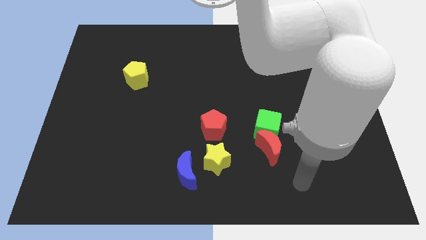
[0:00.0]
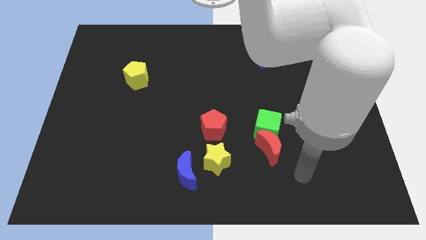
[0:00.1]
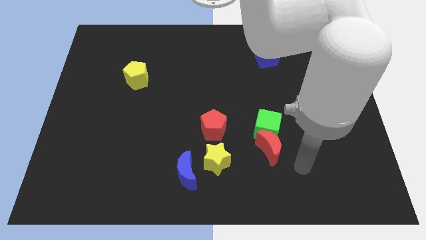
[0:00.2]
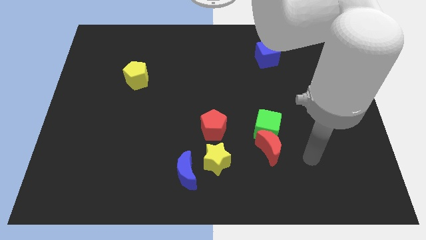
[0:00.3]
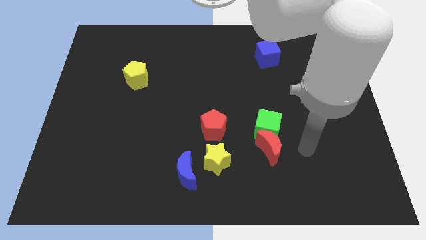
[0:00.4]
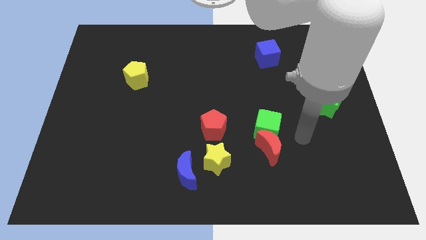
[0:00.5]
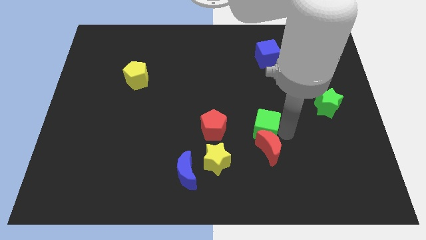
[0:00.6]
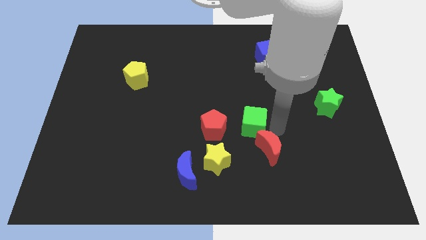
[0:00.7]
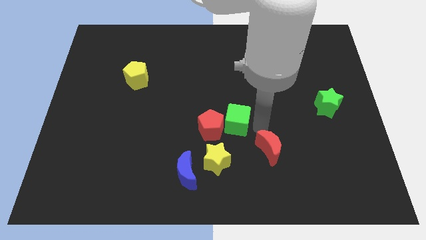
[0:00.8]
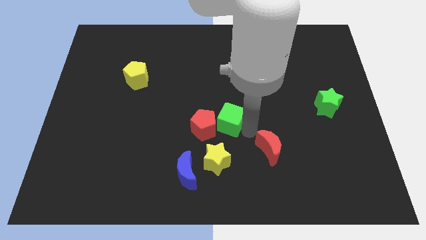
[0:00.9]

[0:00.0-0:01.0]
separate the red moon from the green cube

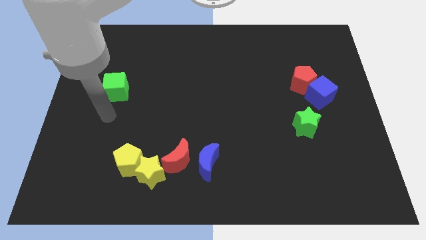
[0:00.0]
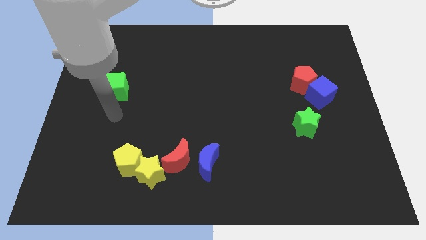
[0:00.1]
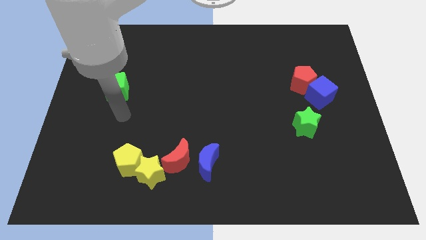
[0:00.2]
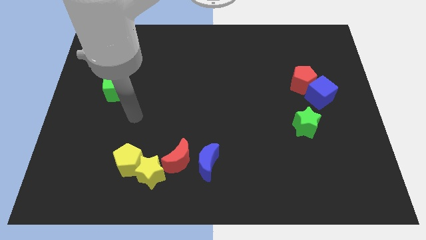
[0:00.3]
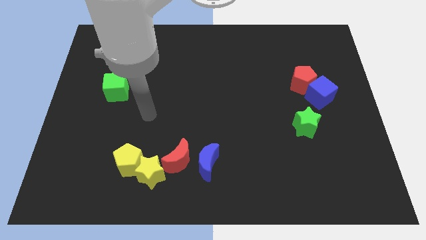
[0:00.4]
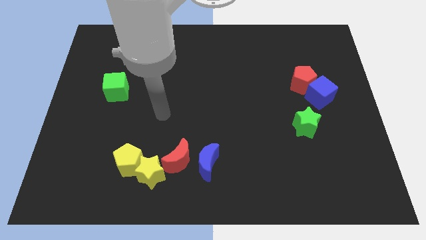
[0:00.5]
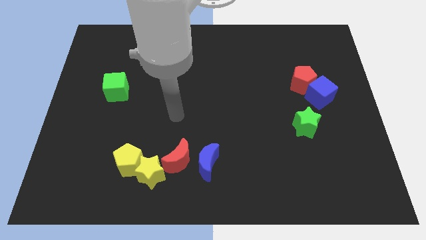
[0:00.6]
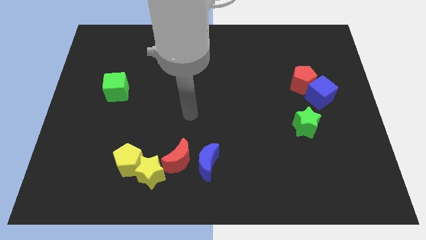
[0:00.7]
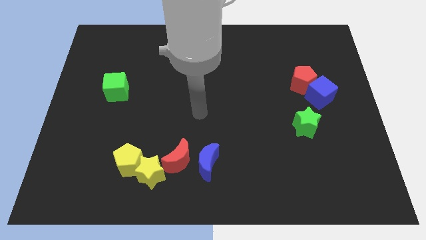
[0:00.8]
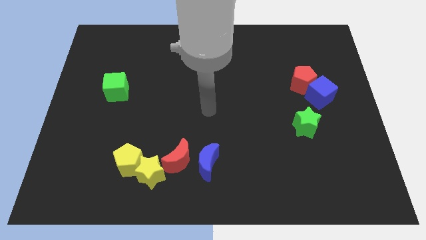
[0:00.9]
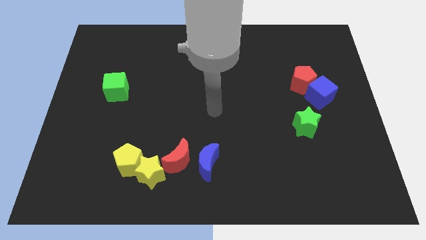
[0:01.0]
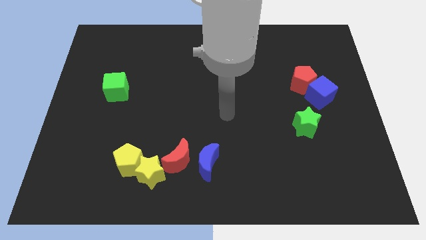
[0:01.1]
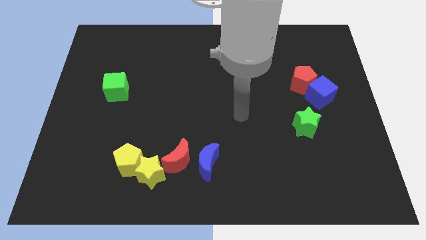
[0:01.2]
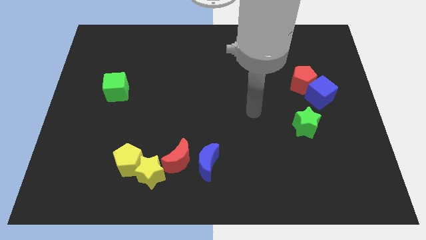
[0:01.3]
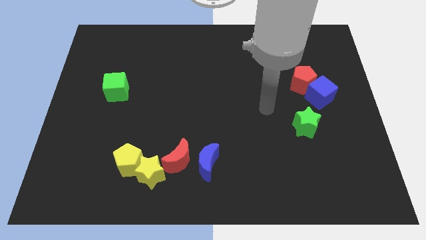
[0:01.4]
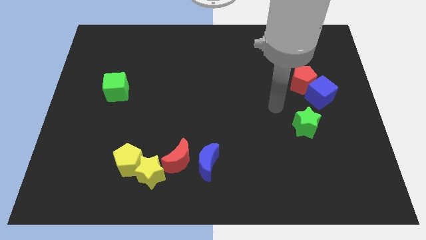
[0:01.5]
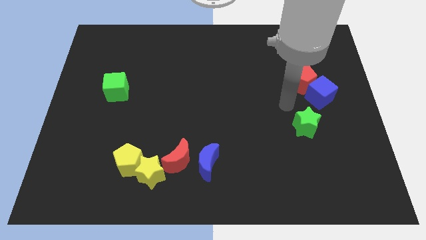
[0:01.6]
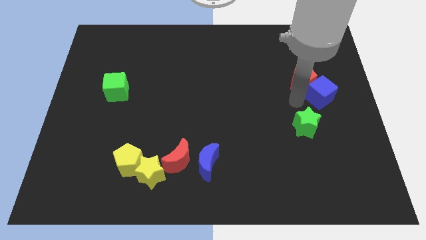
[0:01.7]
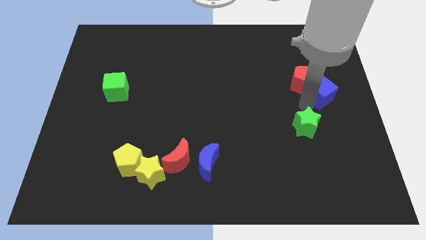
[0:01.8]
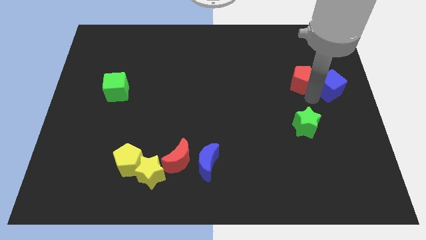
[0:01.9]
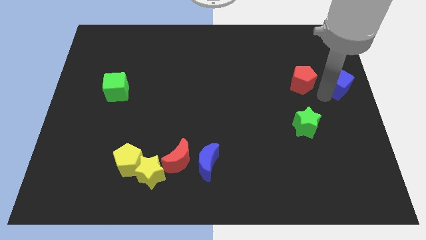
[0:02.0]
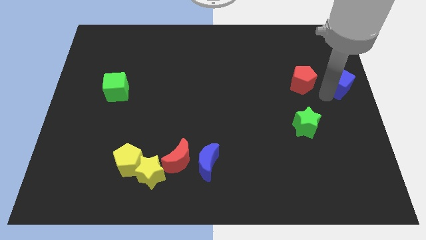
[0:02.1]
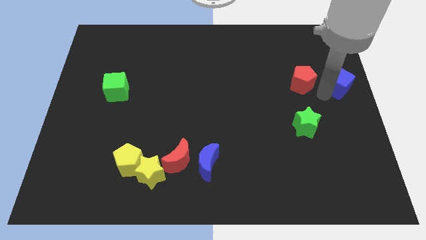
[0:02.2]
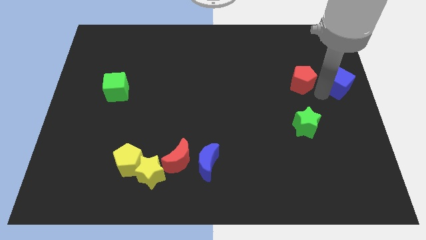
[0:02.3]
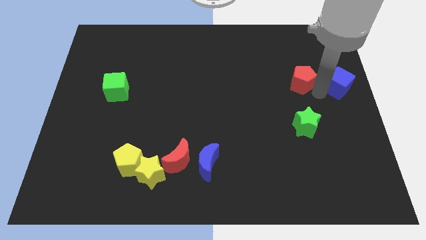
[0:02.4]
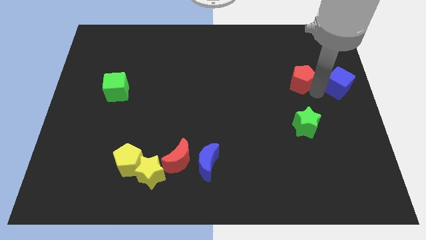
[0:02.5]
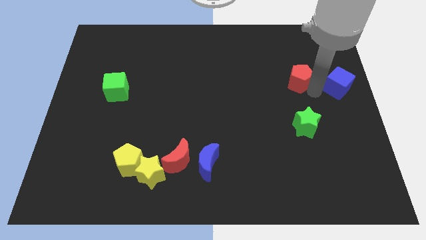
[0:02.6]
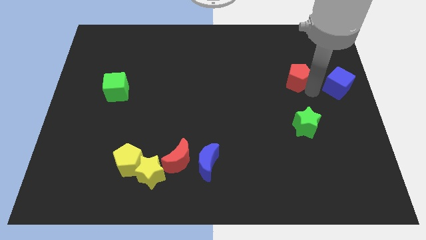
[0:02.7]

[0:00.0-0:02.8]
pull the red pentagon apart from the blue cube

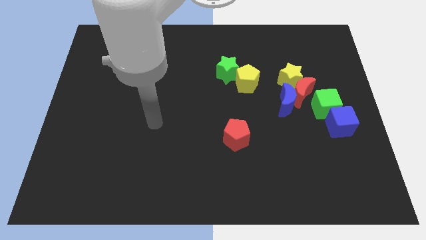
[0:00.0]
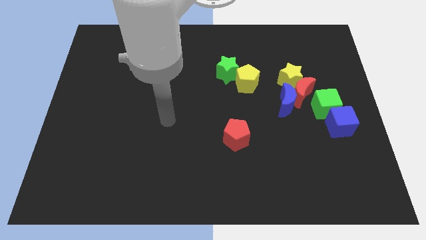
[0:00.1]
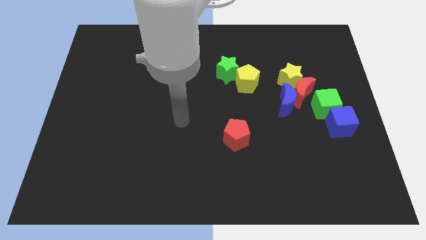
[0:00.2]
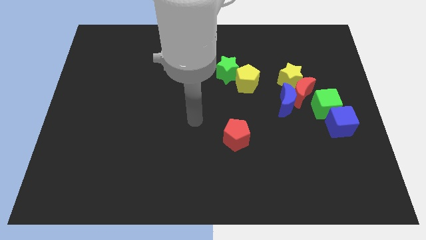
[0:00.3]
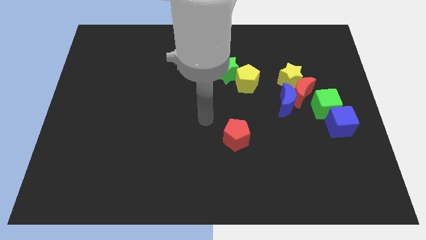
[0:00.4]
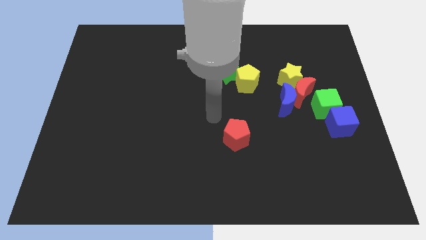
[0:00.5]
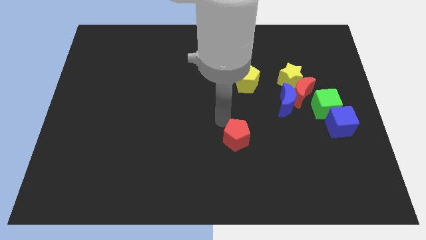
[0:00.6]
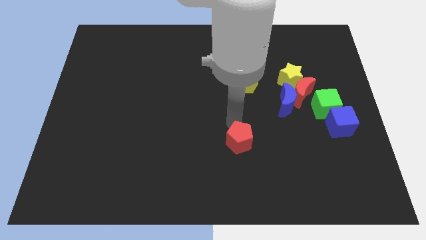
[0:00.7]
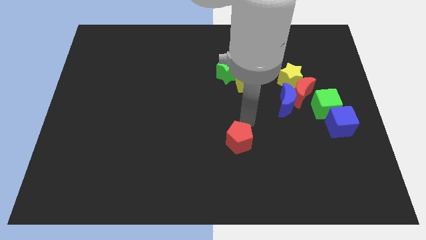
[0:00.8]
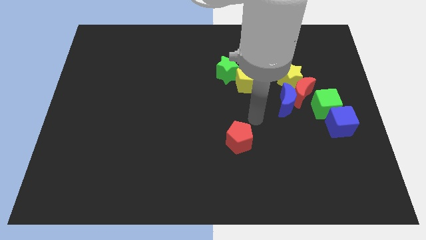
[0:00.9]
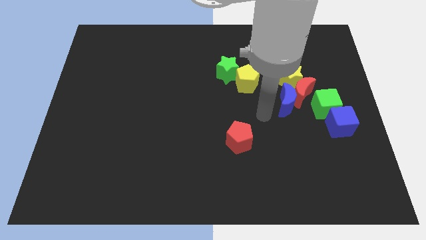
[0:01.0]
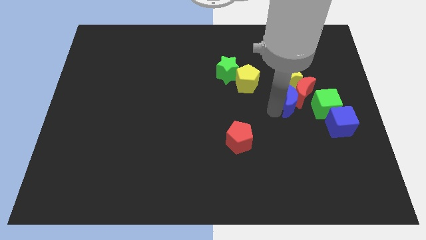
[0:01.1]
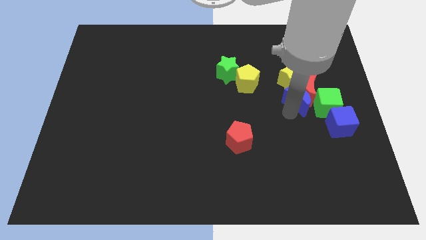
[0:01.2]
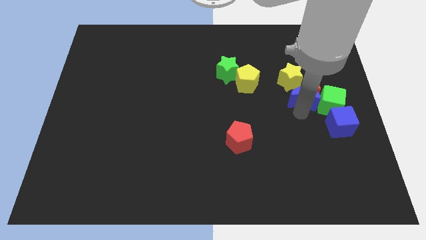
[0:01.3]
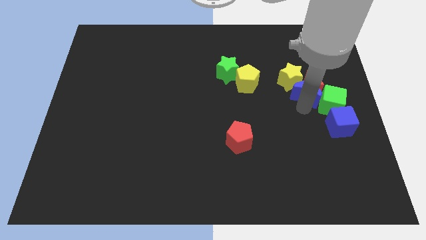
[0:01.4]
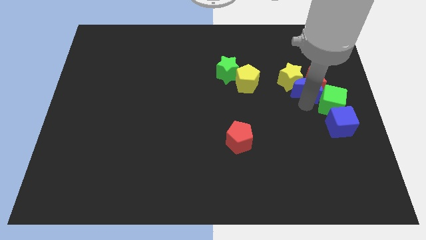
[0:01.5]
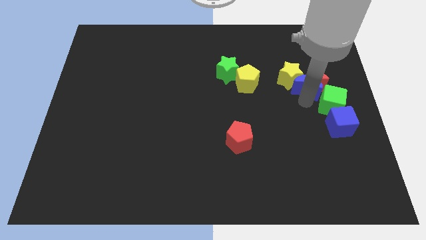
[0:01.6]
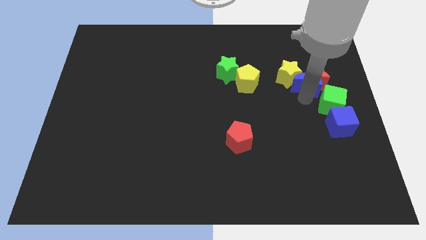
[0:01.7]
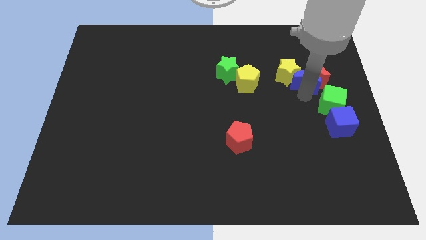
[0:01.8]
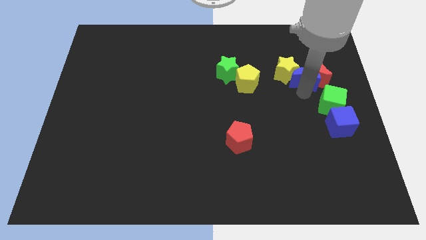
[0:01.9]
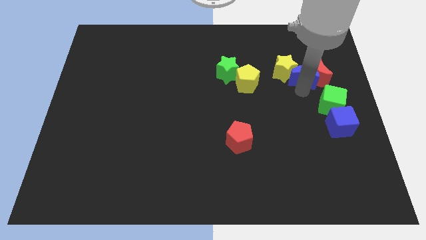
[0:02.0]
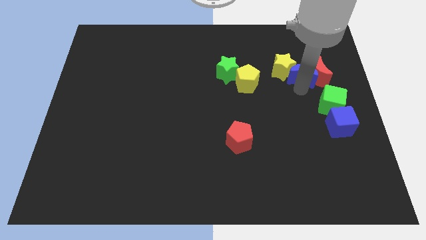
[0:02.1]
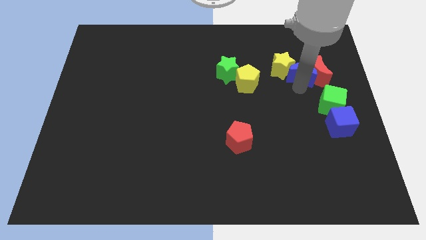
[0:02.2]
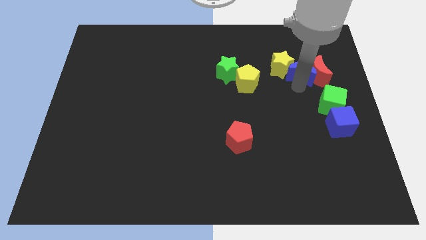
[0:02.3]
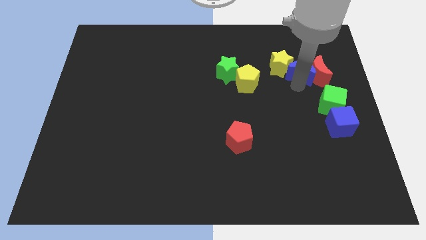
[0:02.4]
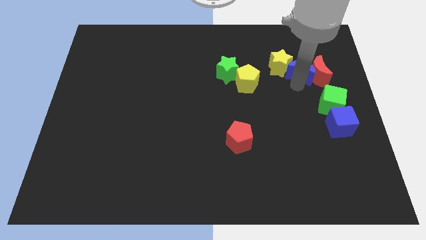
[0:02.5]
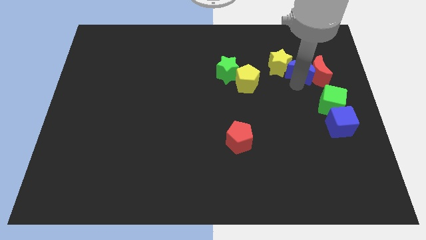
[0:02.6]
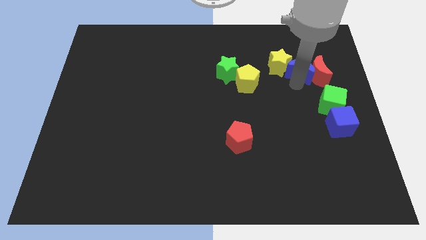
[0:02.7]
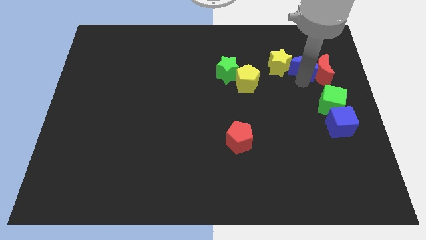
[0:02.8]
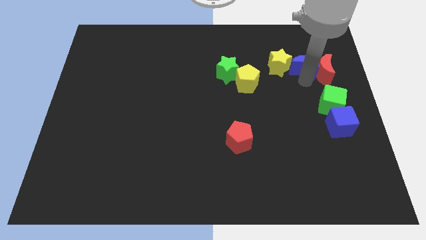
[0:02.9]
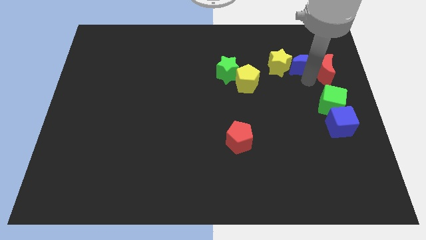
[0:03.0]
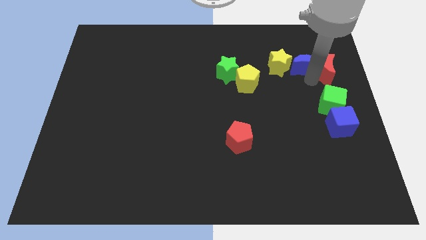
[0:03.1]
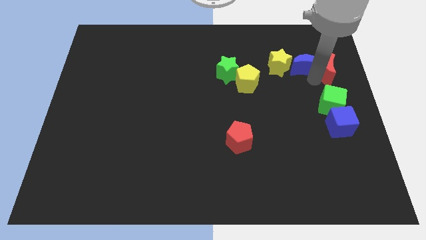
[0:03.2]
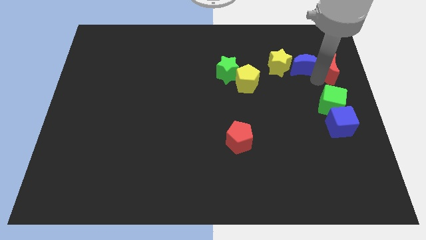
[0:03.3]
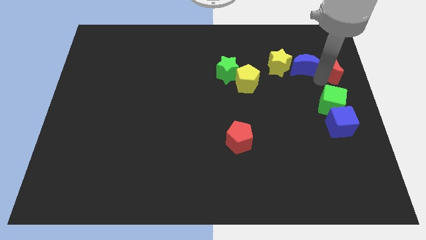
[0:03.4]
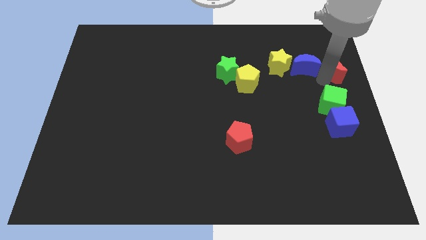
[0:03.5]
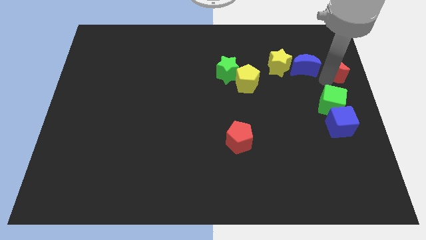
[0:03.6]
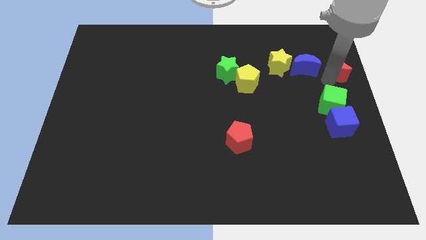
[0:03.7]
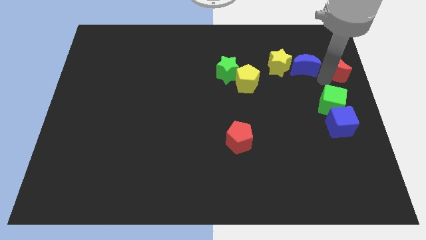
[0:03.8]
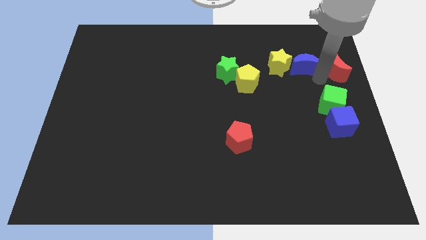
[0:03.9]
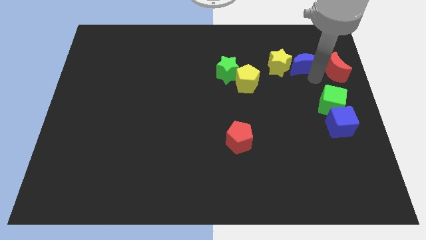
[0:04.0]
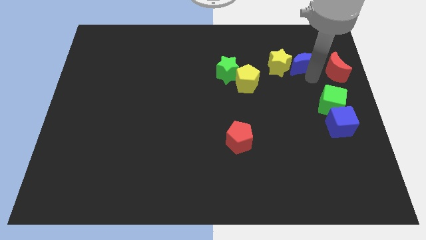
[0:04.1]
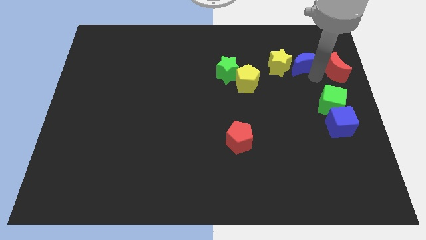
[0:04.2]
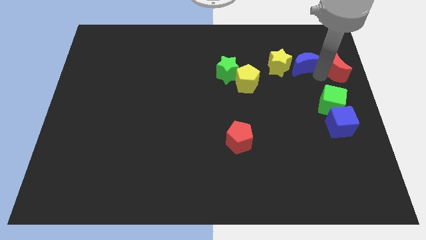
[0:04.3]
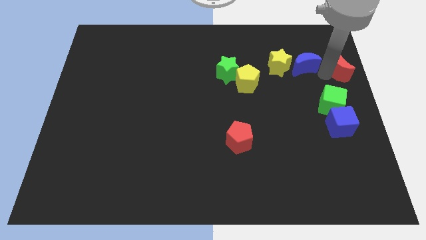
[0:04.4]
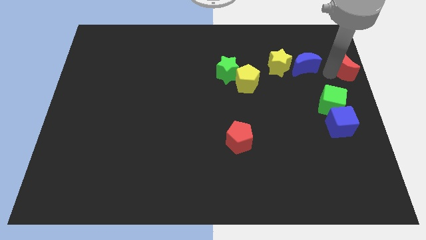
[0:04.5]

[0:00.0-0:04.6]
move the red moon away from the clump

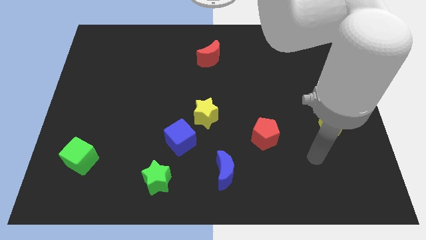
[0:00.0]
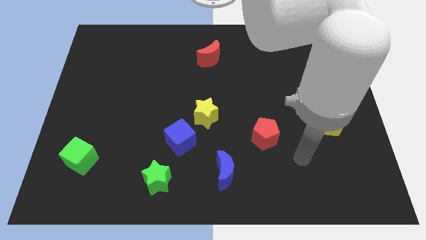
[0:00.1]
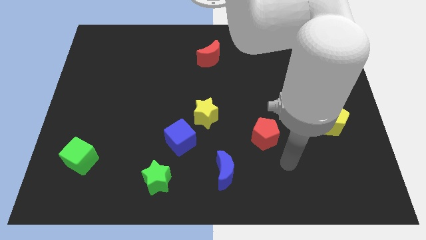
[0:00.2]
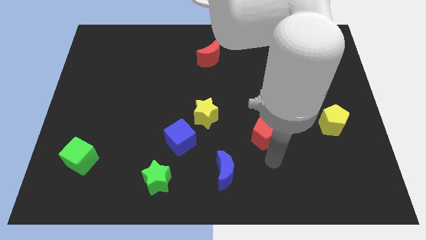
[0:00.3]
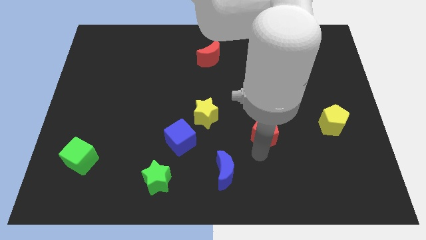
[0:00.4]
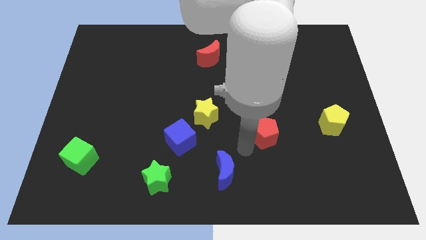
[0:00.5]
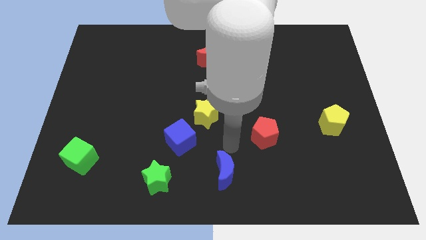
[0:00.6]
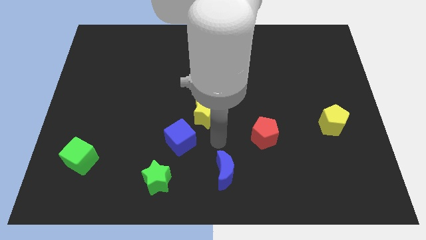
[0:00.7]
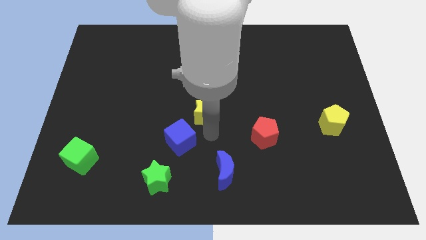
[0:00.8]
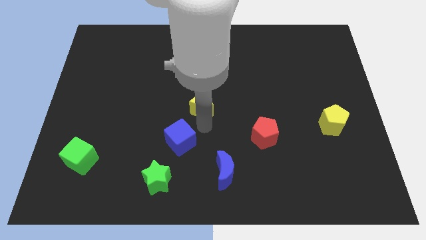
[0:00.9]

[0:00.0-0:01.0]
separate the blue cube from the yellow star
